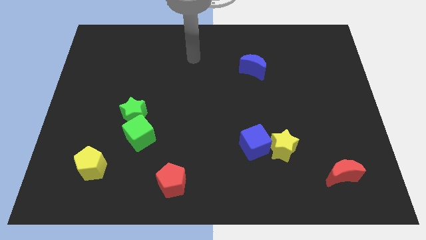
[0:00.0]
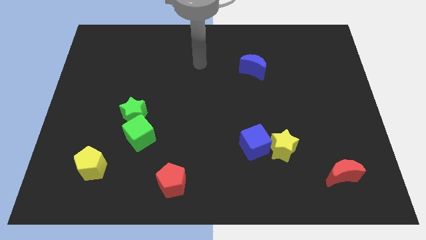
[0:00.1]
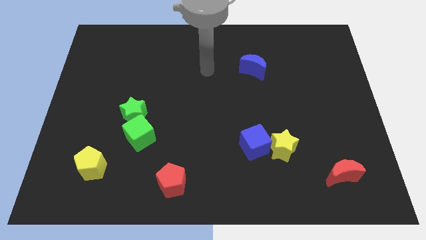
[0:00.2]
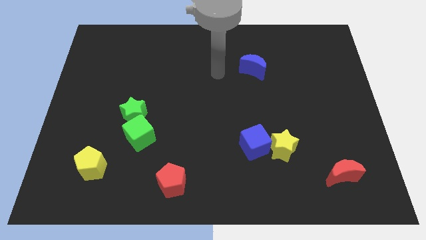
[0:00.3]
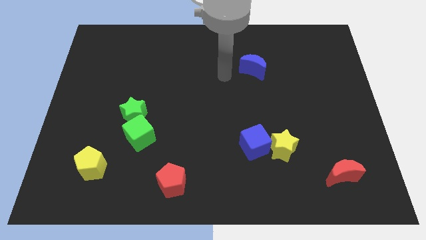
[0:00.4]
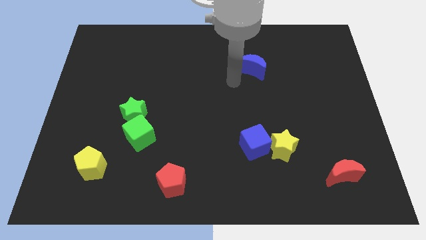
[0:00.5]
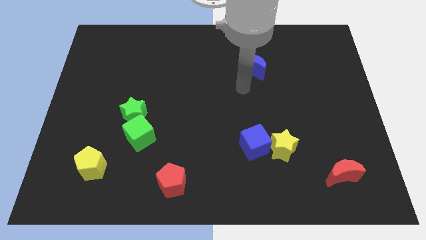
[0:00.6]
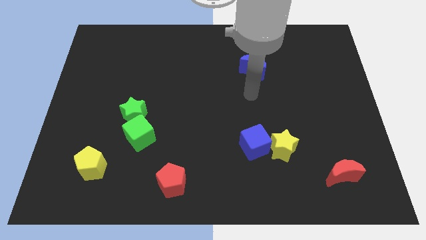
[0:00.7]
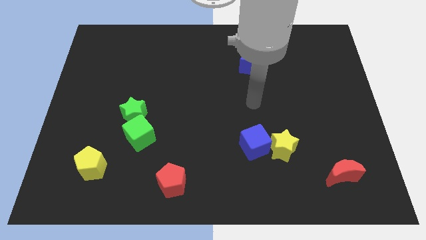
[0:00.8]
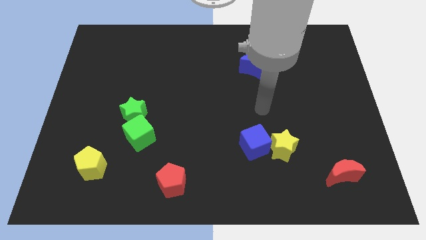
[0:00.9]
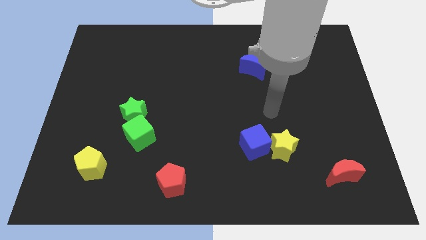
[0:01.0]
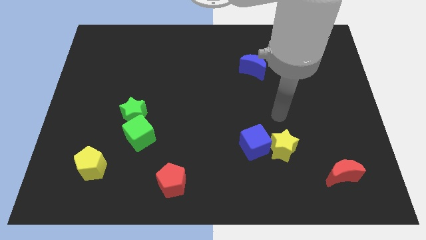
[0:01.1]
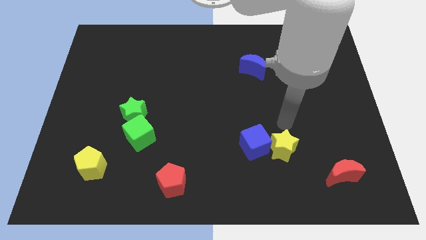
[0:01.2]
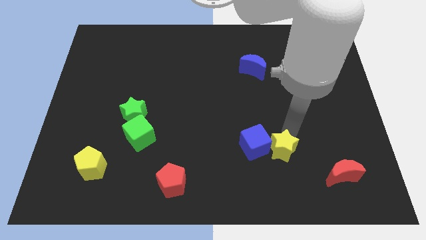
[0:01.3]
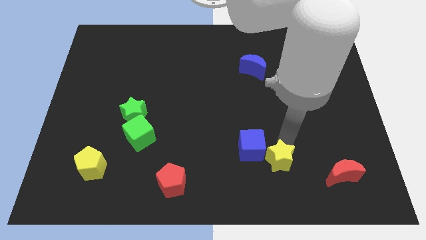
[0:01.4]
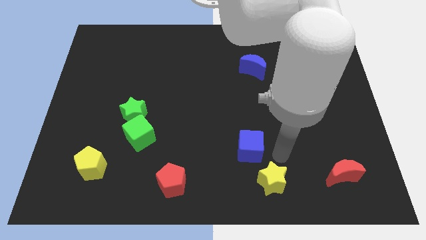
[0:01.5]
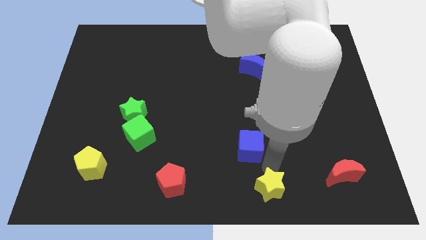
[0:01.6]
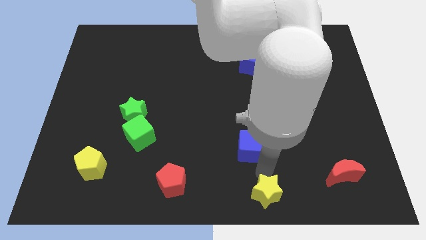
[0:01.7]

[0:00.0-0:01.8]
move the blue cube away from the yellow star

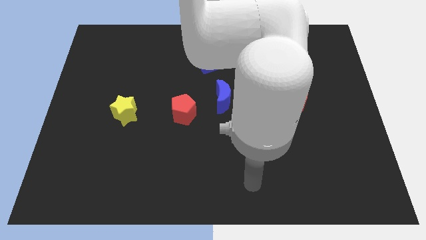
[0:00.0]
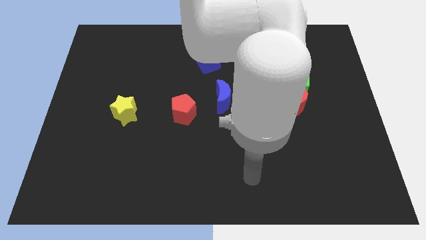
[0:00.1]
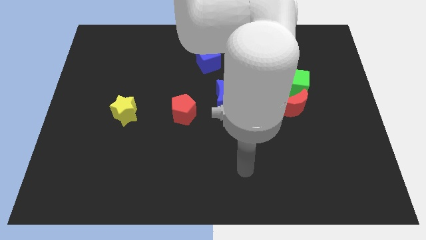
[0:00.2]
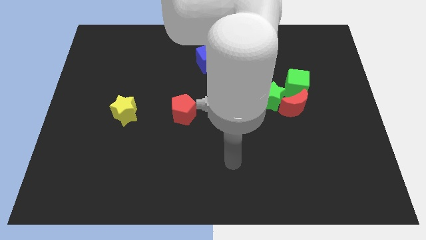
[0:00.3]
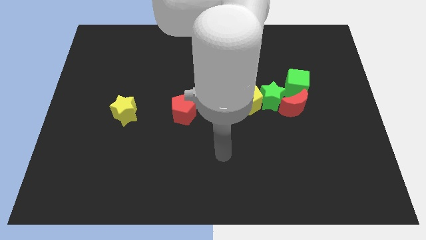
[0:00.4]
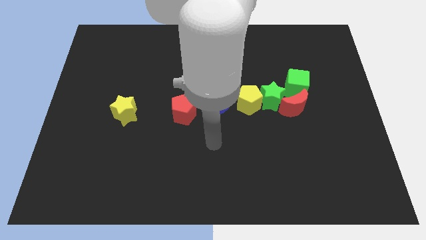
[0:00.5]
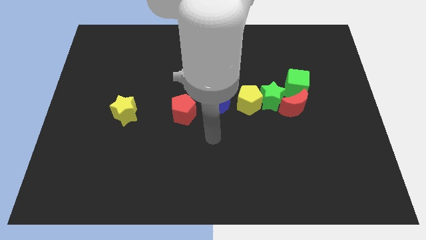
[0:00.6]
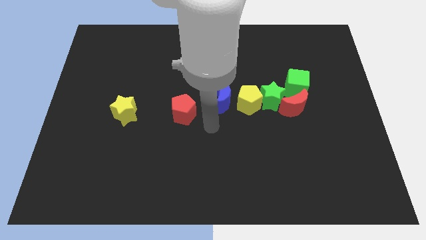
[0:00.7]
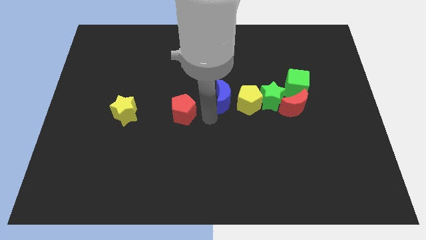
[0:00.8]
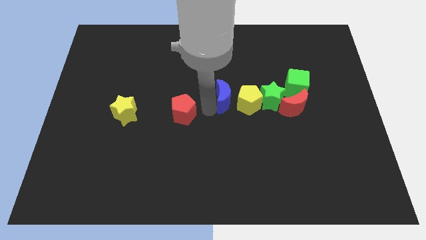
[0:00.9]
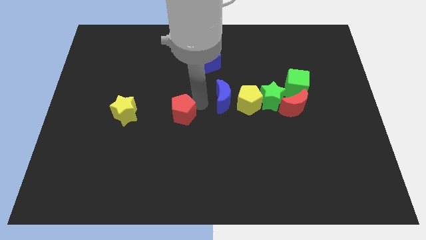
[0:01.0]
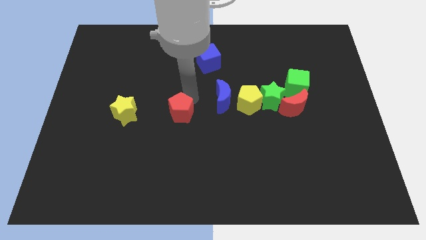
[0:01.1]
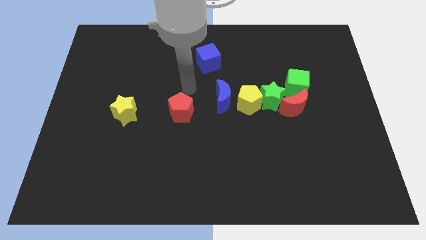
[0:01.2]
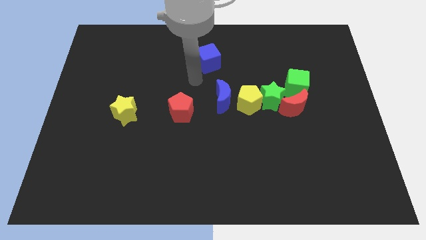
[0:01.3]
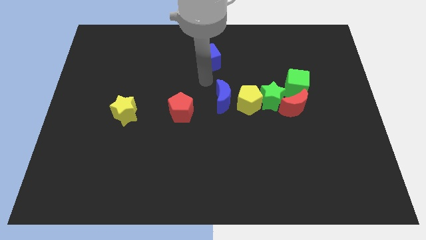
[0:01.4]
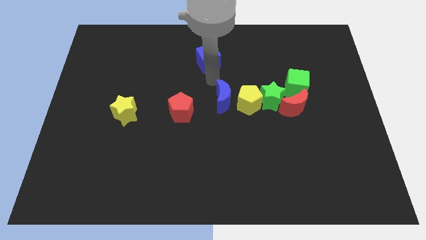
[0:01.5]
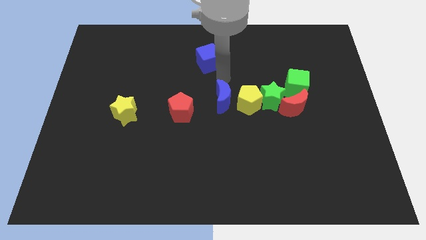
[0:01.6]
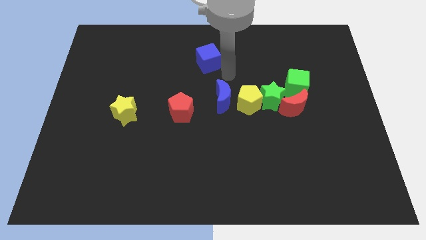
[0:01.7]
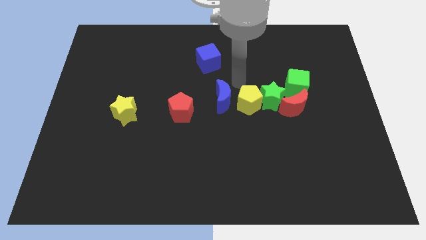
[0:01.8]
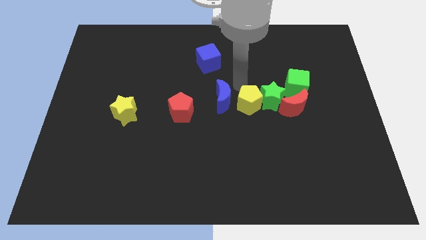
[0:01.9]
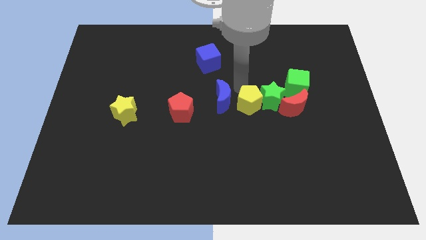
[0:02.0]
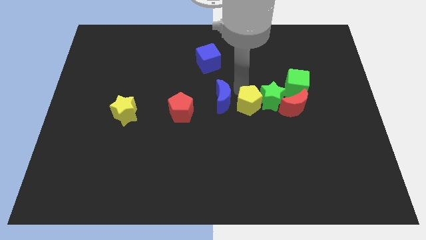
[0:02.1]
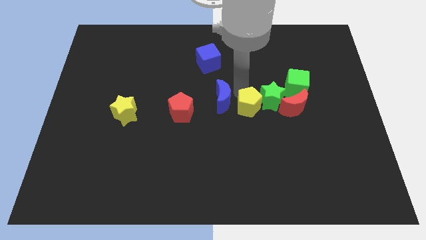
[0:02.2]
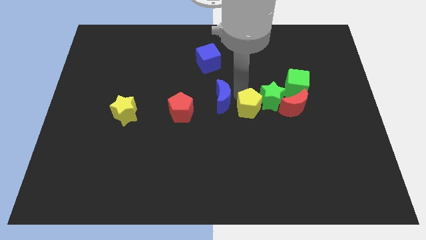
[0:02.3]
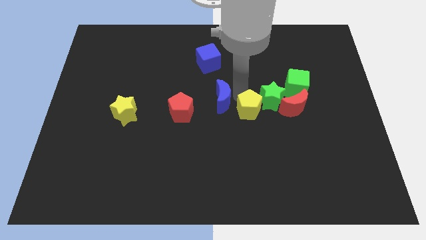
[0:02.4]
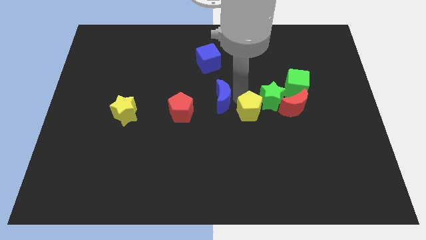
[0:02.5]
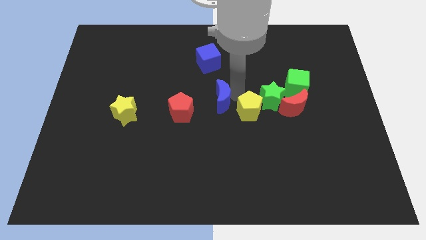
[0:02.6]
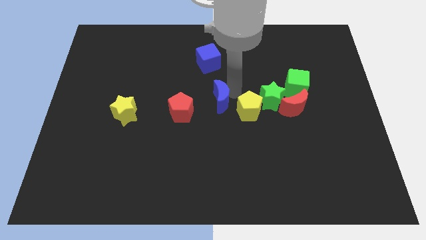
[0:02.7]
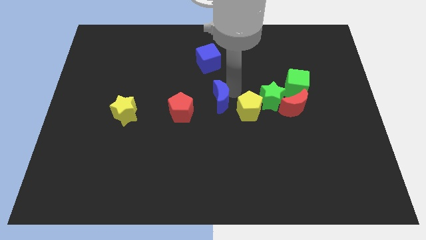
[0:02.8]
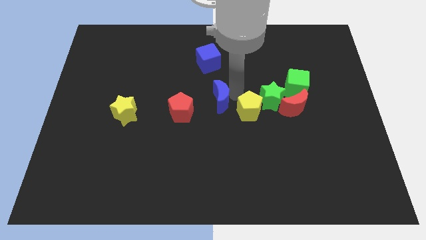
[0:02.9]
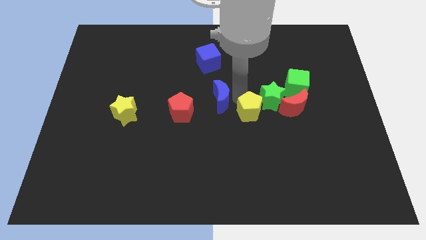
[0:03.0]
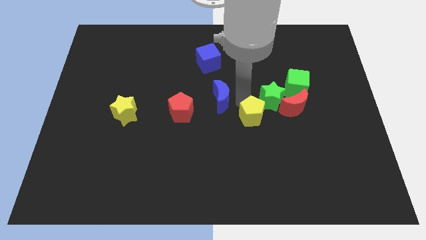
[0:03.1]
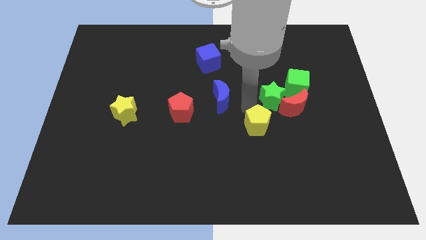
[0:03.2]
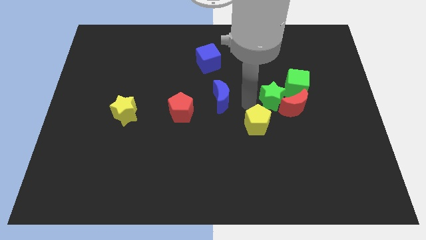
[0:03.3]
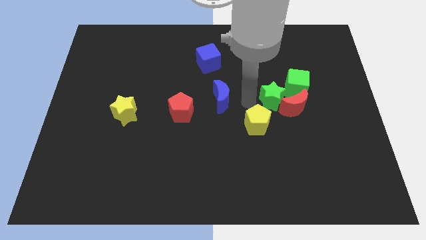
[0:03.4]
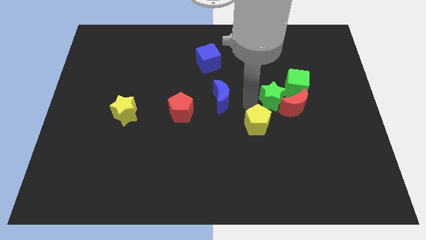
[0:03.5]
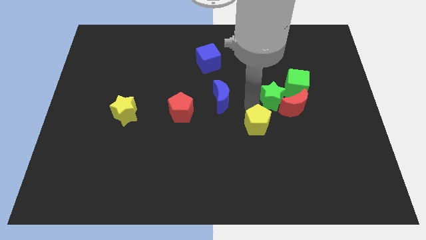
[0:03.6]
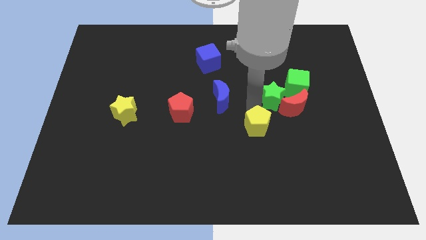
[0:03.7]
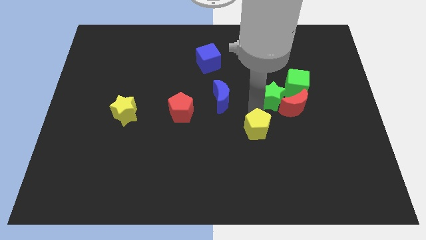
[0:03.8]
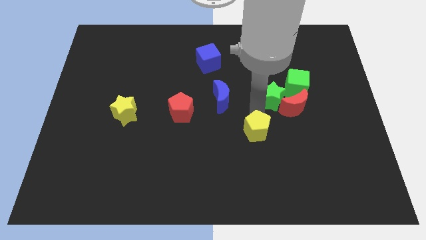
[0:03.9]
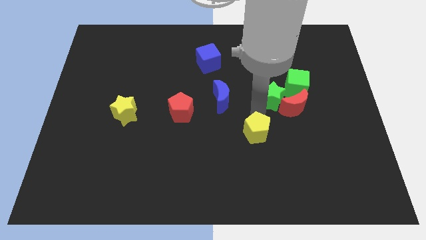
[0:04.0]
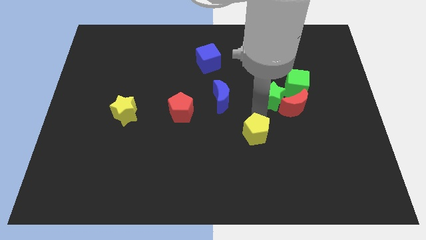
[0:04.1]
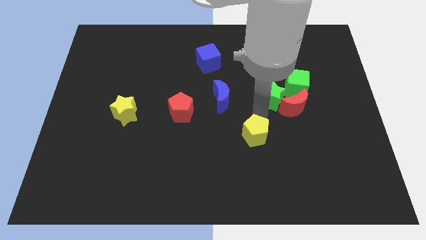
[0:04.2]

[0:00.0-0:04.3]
move the yellow pentagon away from the green star and blue moon

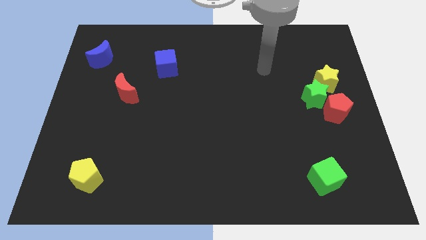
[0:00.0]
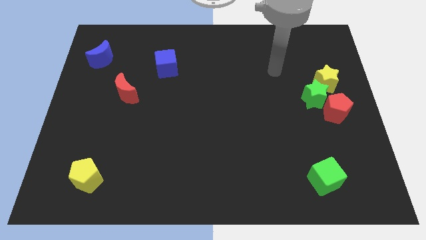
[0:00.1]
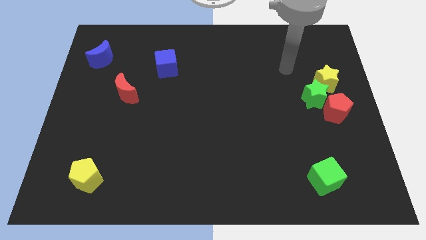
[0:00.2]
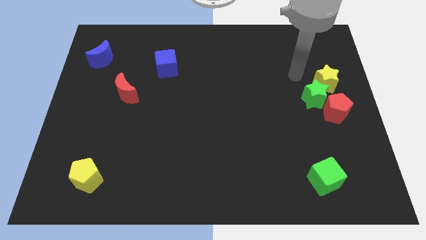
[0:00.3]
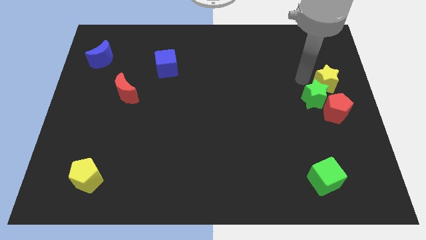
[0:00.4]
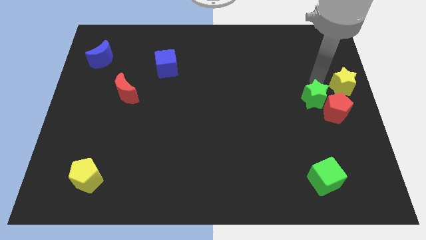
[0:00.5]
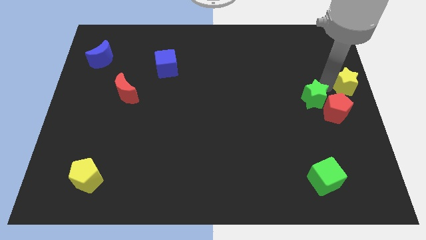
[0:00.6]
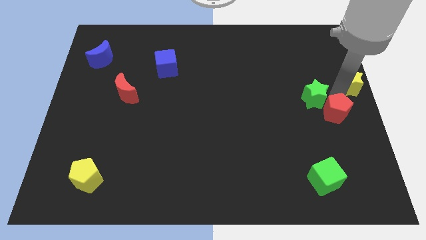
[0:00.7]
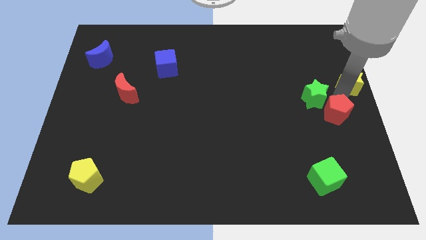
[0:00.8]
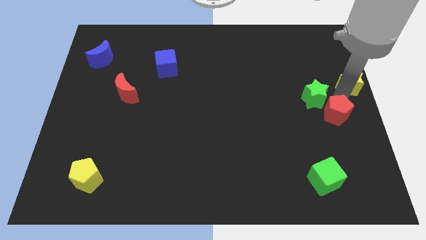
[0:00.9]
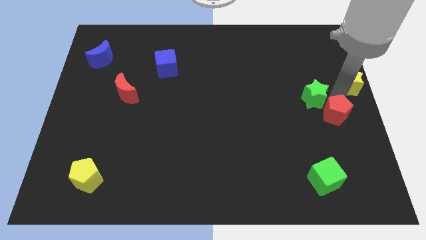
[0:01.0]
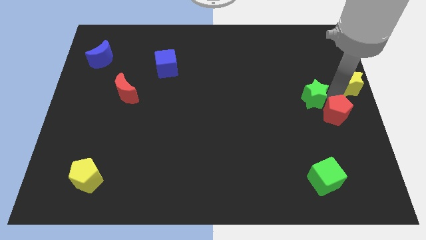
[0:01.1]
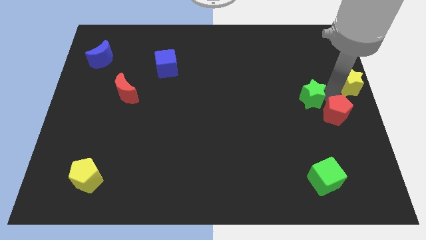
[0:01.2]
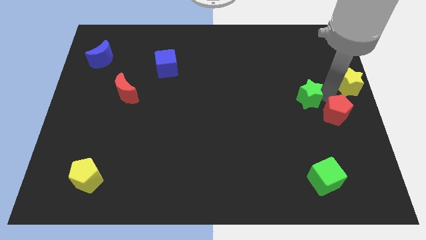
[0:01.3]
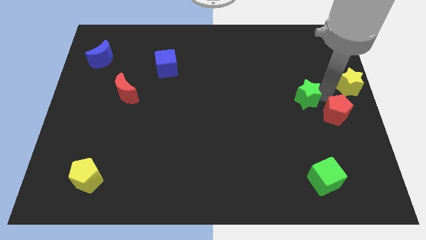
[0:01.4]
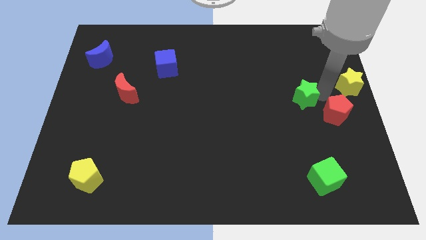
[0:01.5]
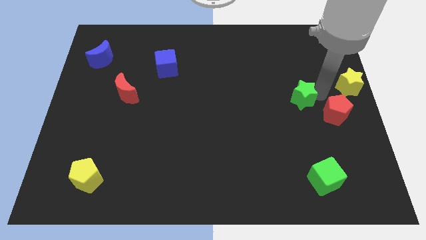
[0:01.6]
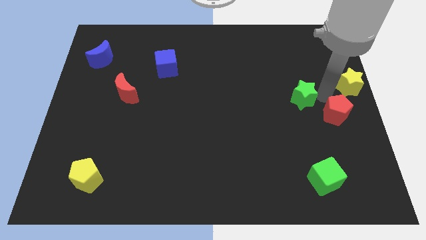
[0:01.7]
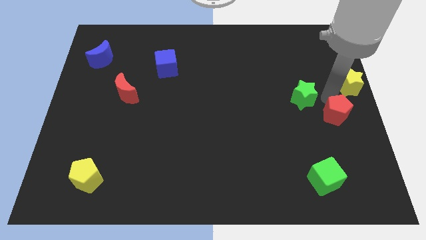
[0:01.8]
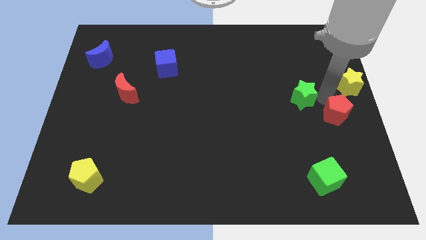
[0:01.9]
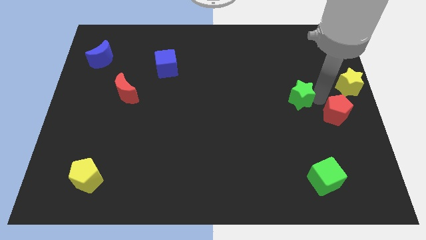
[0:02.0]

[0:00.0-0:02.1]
move the green star away from the red pentagon and yellow star

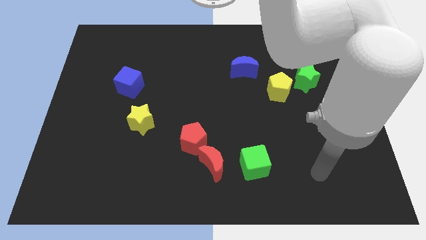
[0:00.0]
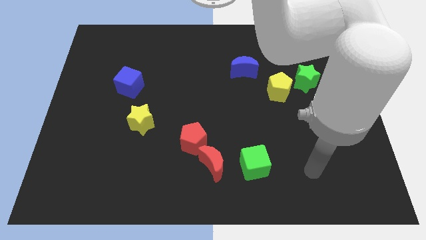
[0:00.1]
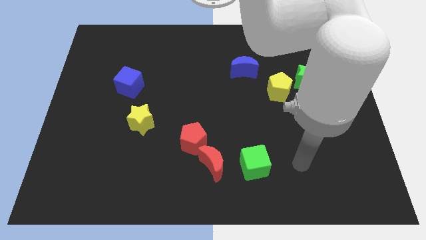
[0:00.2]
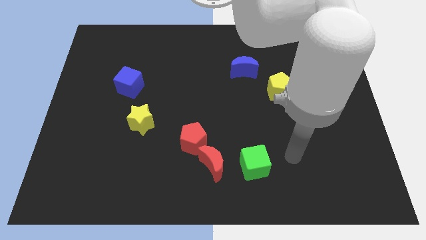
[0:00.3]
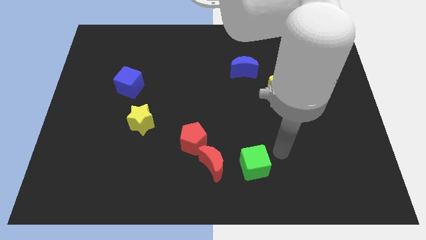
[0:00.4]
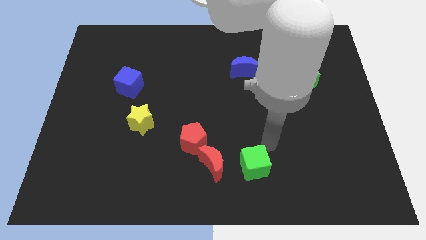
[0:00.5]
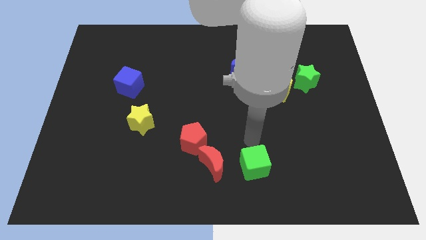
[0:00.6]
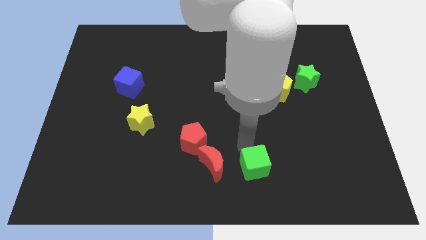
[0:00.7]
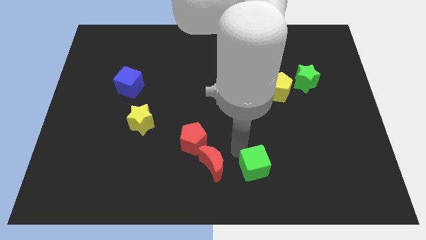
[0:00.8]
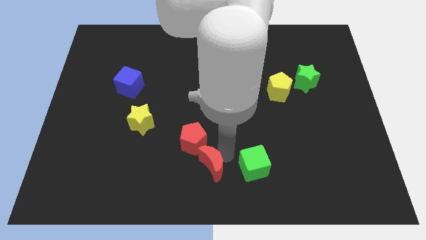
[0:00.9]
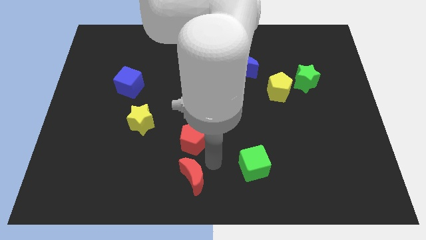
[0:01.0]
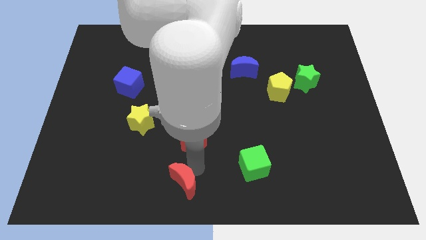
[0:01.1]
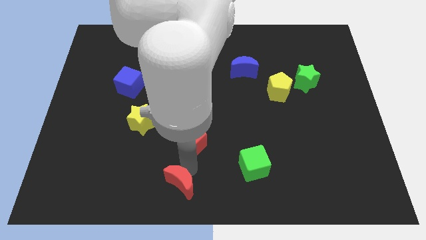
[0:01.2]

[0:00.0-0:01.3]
separate the red pentagon from the red moon
